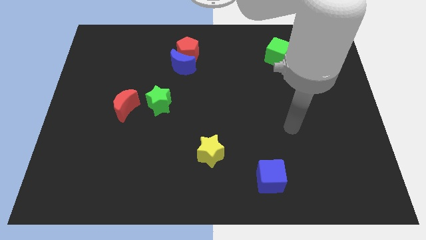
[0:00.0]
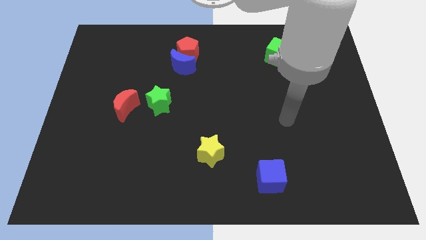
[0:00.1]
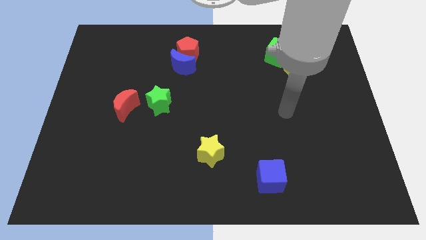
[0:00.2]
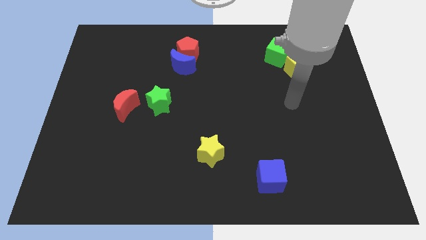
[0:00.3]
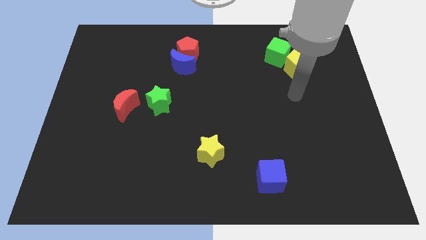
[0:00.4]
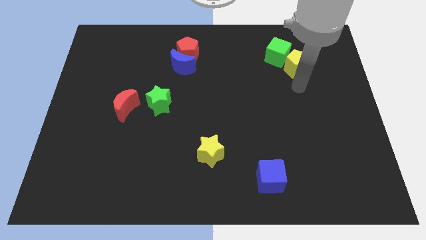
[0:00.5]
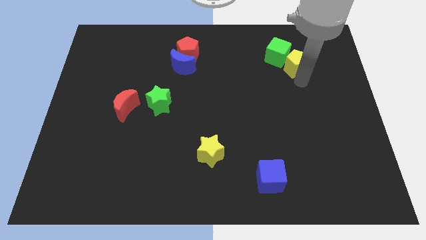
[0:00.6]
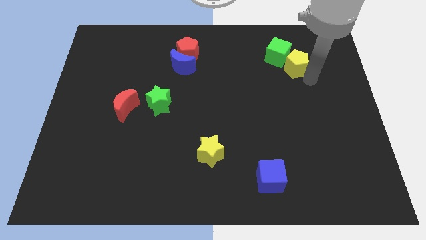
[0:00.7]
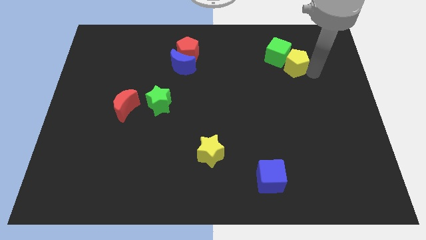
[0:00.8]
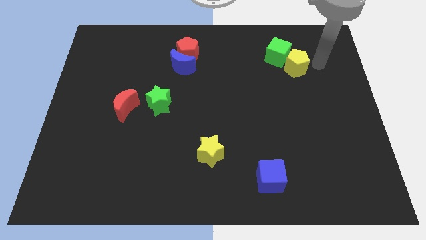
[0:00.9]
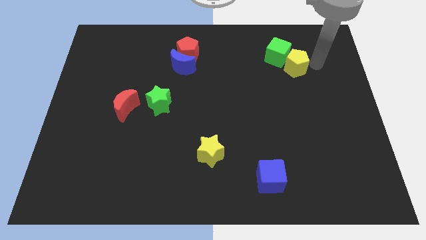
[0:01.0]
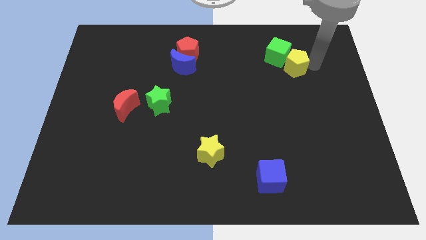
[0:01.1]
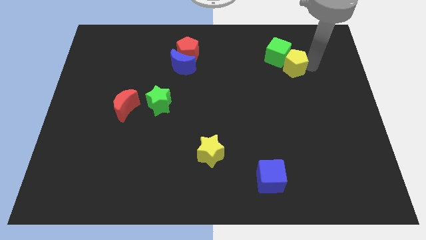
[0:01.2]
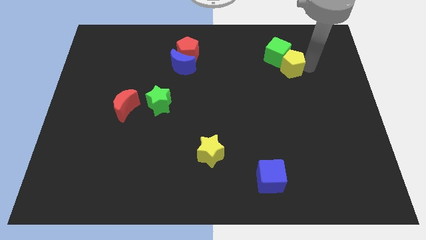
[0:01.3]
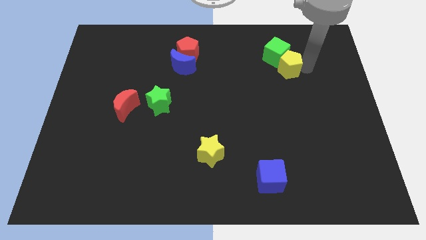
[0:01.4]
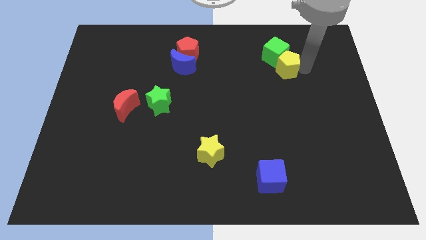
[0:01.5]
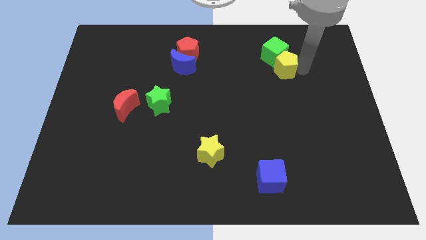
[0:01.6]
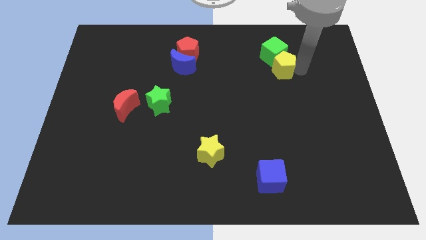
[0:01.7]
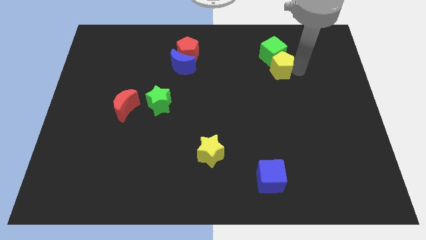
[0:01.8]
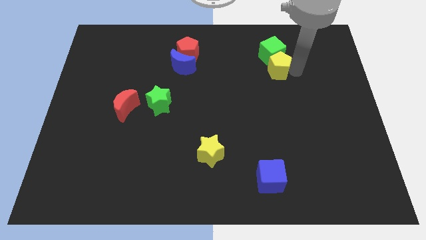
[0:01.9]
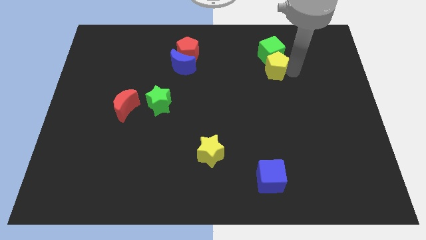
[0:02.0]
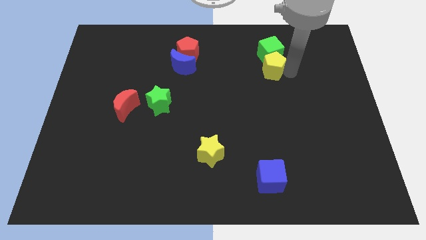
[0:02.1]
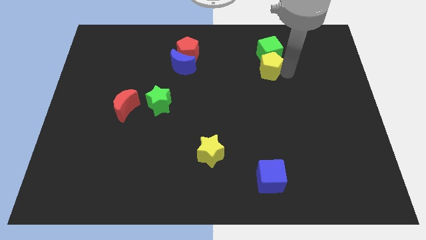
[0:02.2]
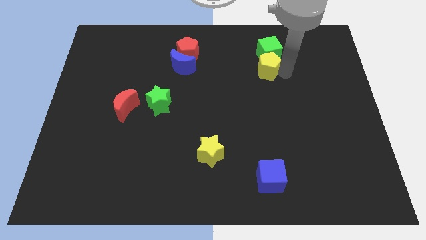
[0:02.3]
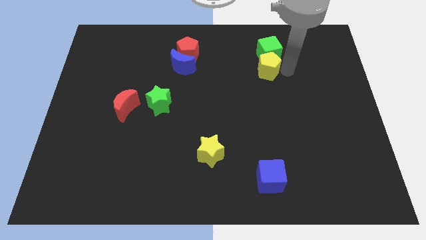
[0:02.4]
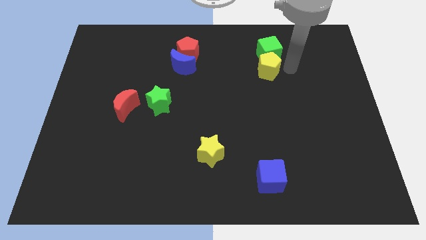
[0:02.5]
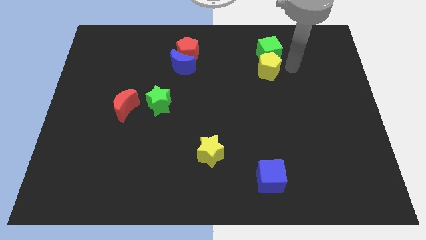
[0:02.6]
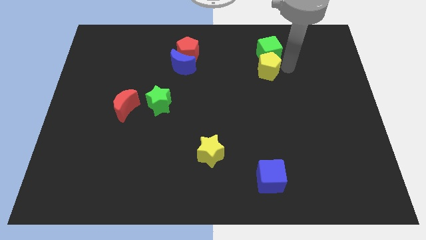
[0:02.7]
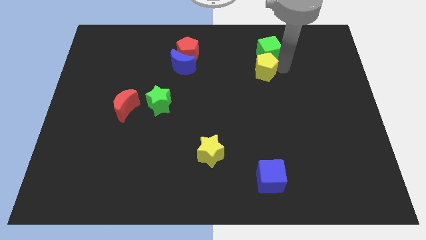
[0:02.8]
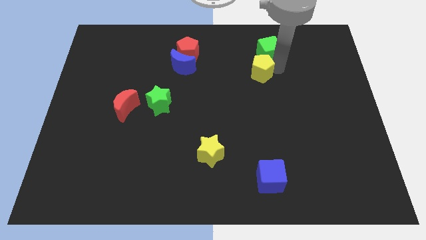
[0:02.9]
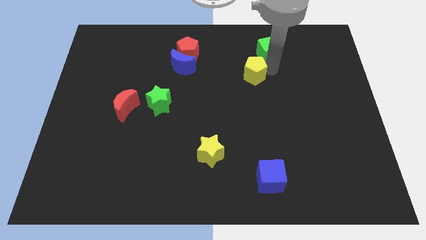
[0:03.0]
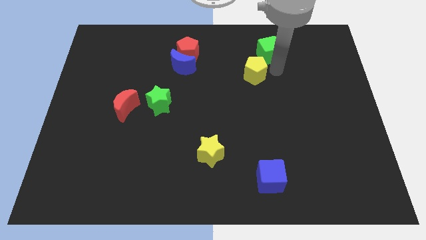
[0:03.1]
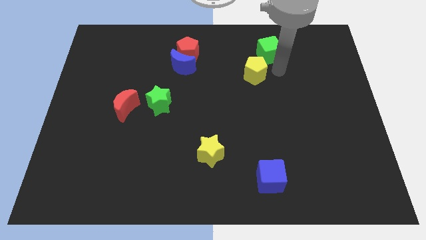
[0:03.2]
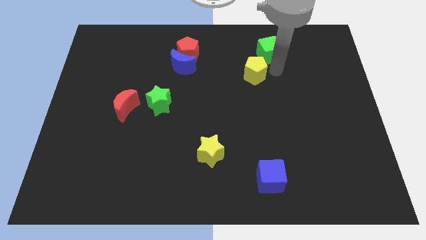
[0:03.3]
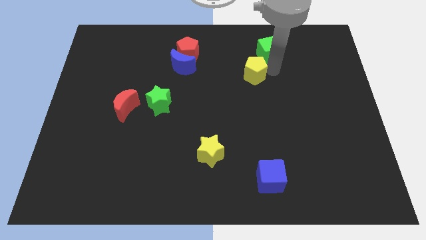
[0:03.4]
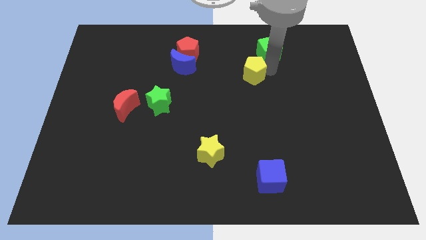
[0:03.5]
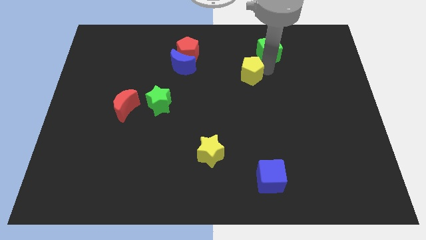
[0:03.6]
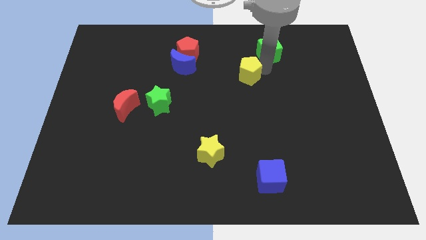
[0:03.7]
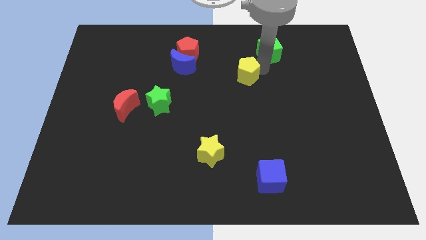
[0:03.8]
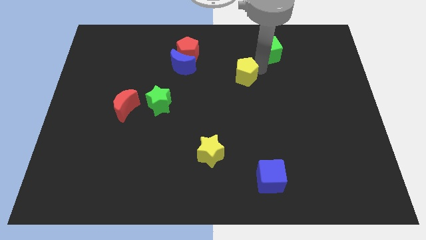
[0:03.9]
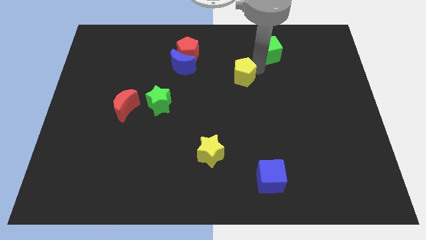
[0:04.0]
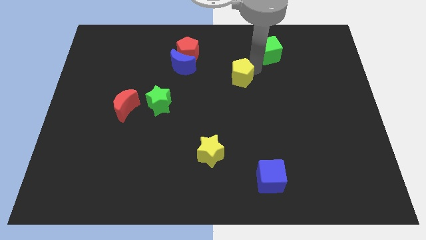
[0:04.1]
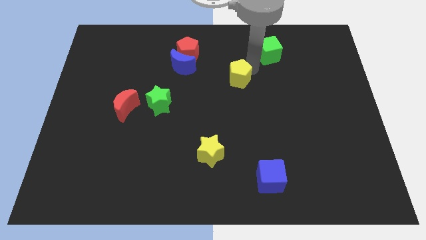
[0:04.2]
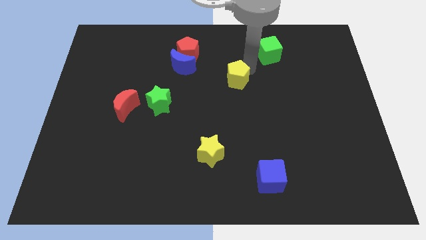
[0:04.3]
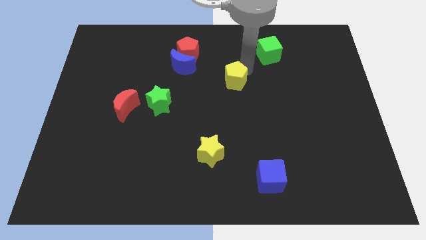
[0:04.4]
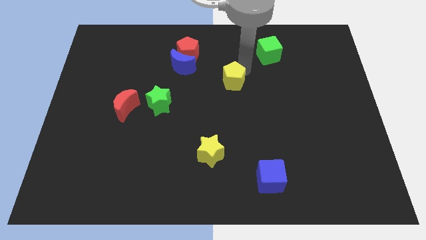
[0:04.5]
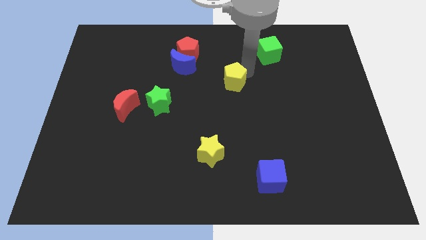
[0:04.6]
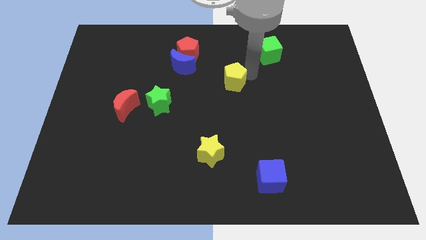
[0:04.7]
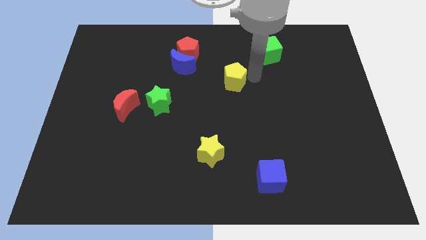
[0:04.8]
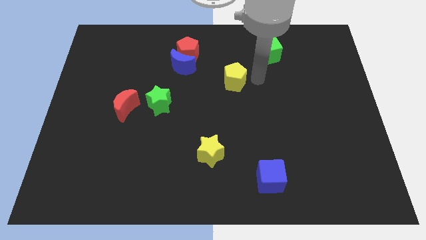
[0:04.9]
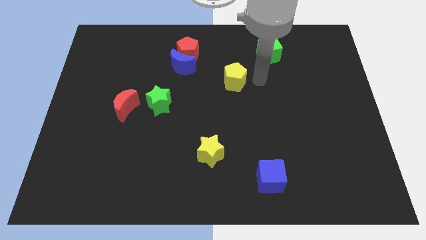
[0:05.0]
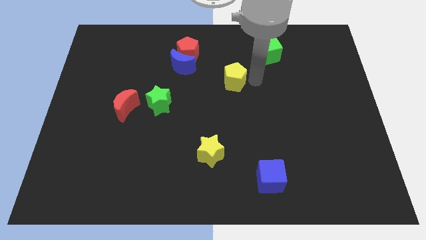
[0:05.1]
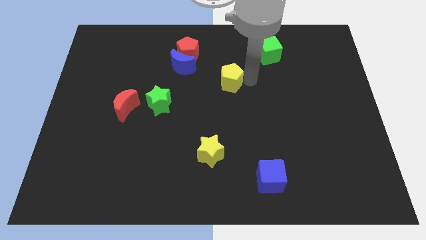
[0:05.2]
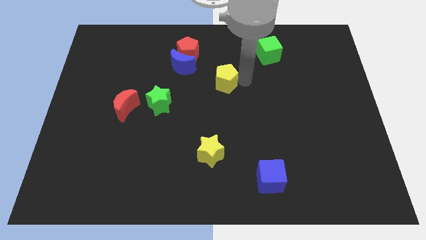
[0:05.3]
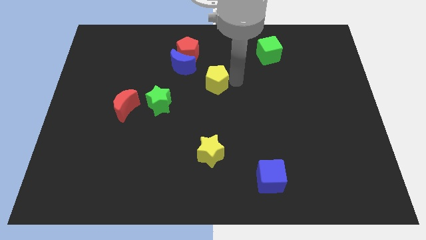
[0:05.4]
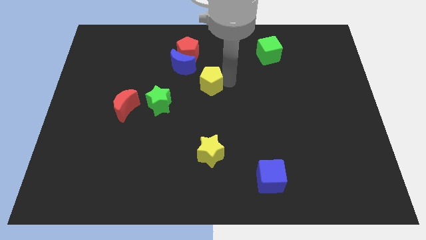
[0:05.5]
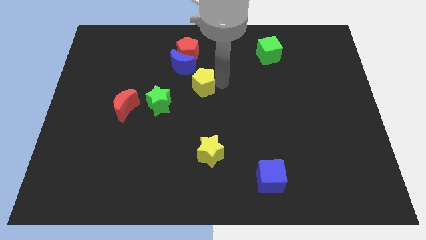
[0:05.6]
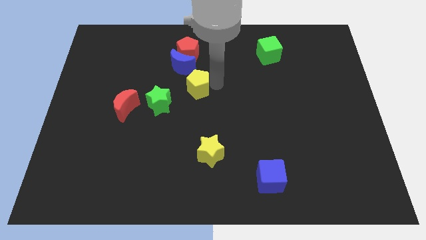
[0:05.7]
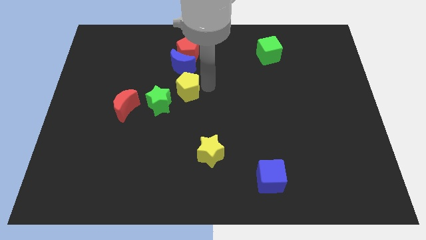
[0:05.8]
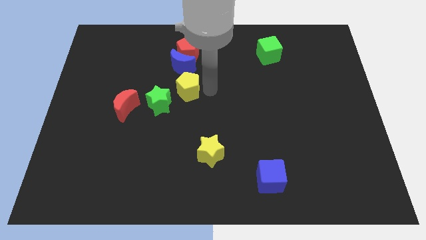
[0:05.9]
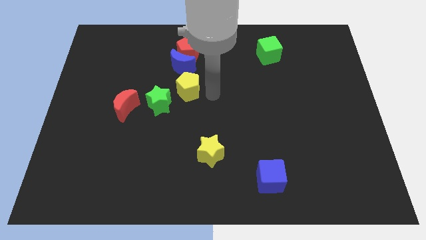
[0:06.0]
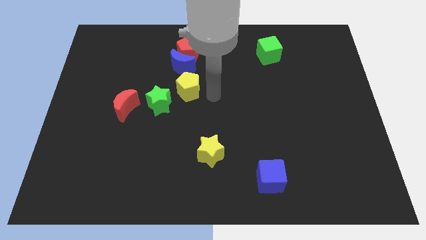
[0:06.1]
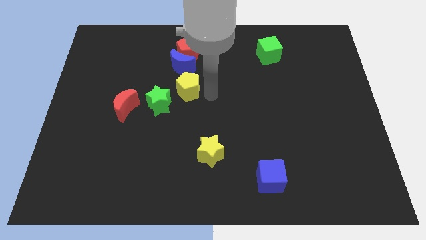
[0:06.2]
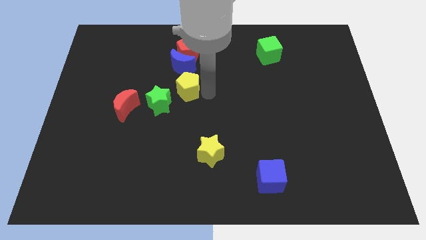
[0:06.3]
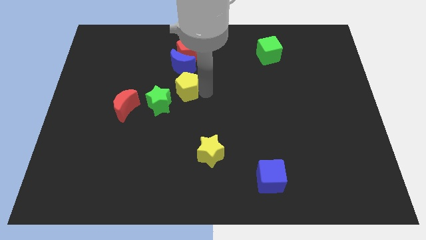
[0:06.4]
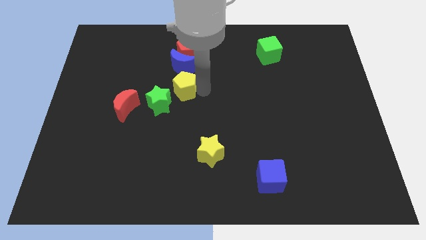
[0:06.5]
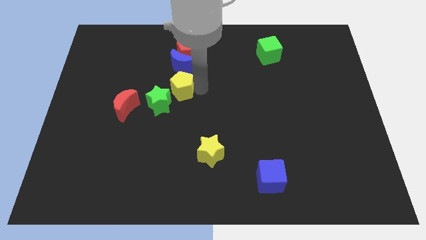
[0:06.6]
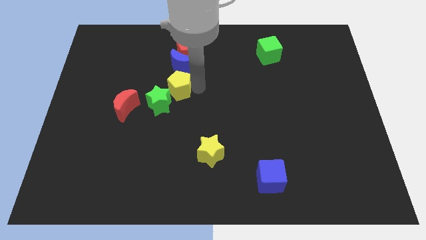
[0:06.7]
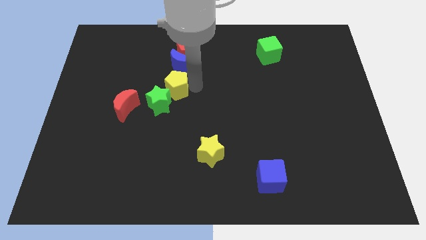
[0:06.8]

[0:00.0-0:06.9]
slide the yellow pentagon diagonally down and to the left of the blue moon

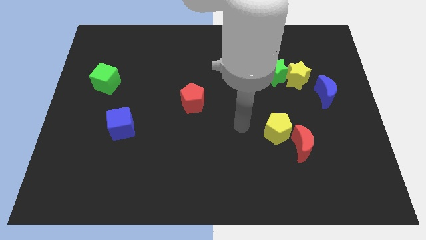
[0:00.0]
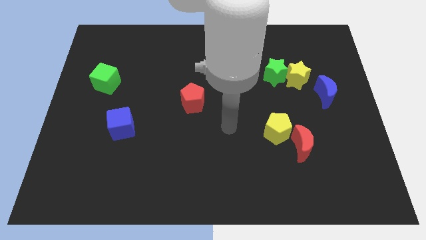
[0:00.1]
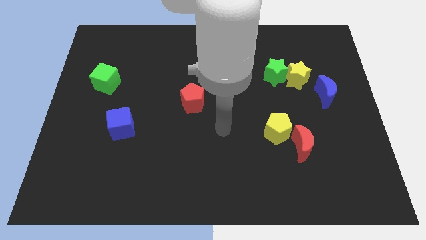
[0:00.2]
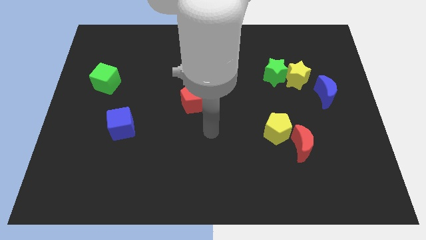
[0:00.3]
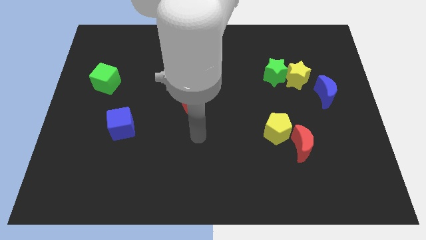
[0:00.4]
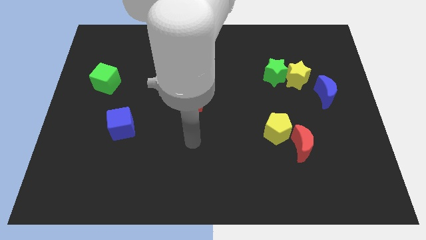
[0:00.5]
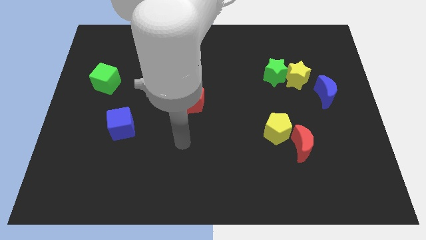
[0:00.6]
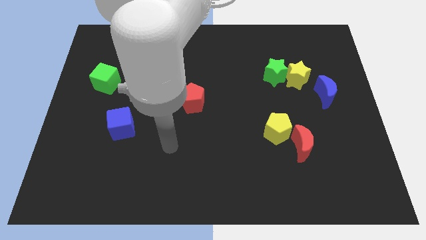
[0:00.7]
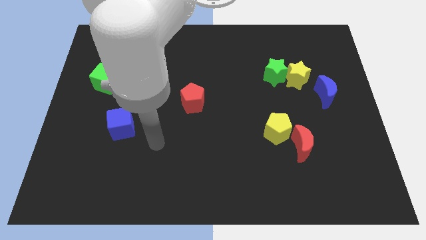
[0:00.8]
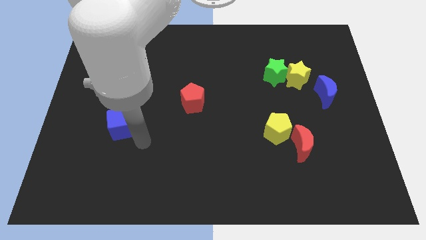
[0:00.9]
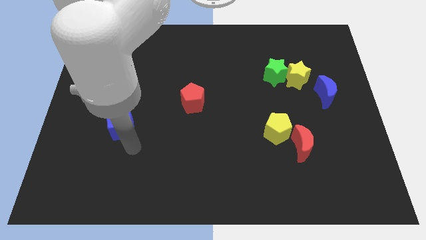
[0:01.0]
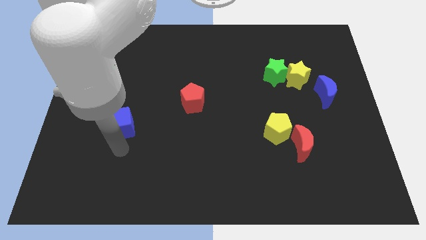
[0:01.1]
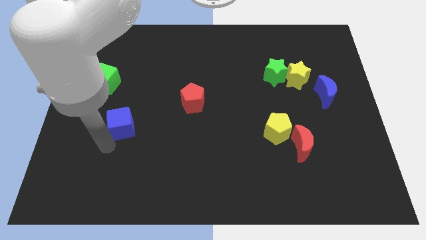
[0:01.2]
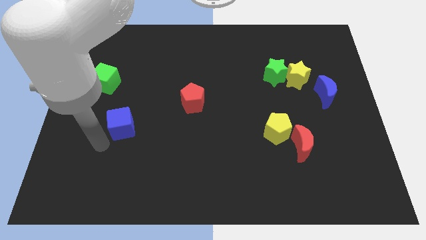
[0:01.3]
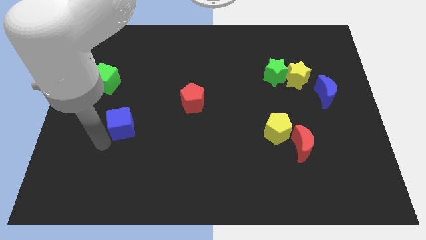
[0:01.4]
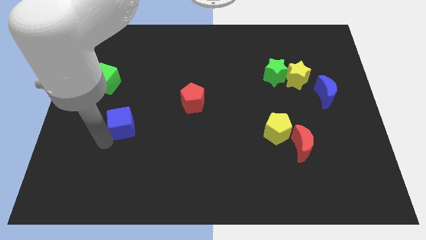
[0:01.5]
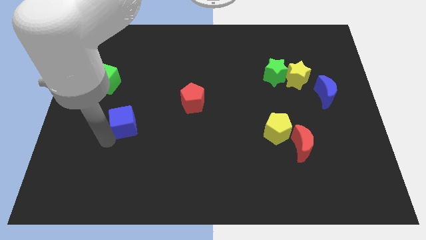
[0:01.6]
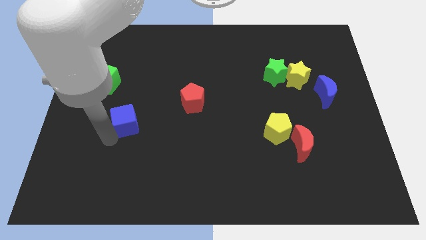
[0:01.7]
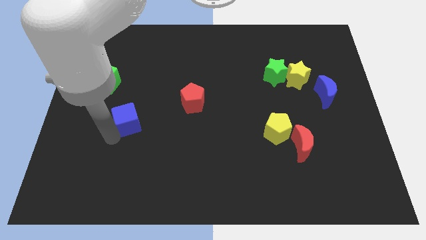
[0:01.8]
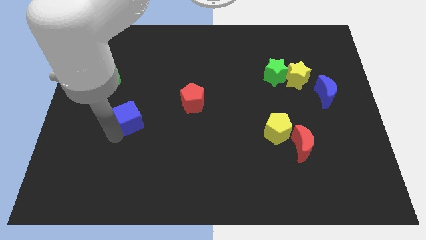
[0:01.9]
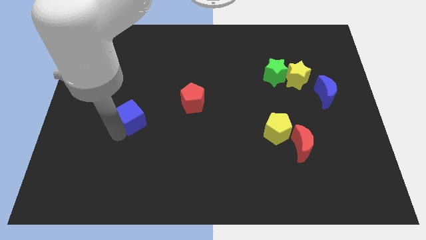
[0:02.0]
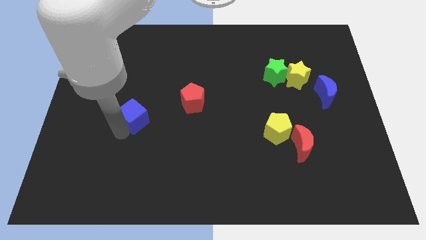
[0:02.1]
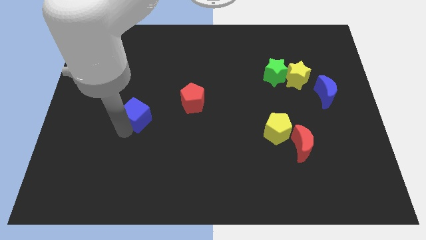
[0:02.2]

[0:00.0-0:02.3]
move the blue cube just left of the red pentagon
